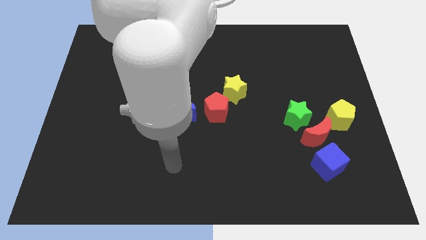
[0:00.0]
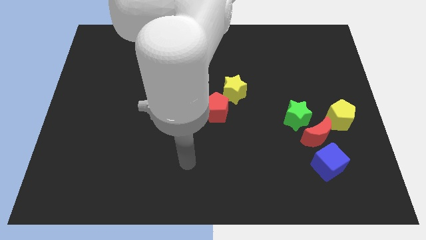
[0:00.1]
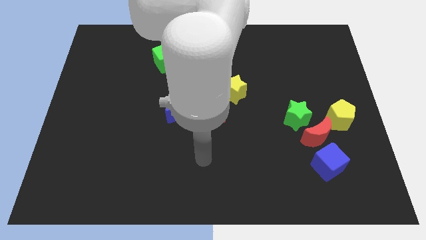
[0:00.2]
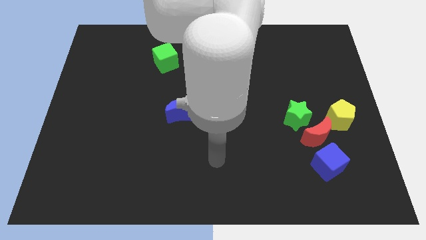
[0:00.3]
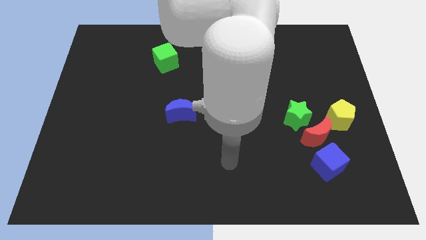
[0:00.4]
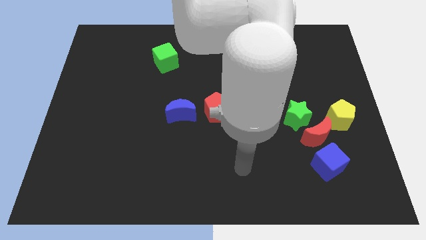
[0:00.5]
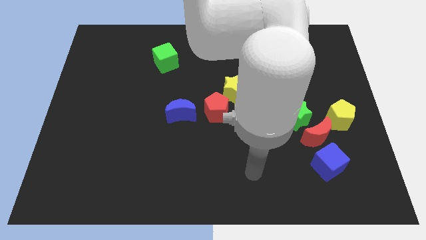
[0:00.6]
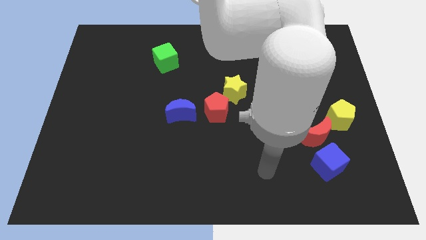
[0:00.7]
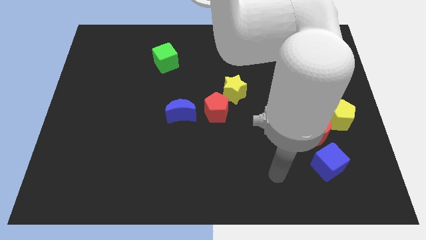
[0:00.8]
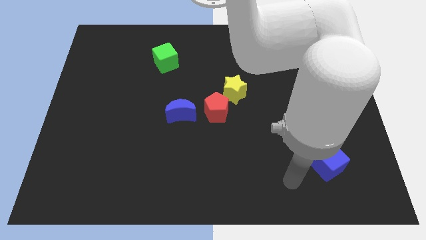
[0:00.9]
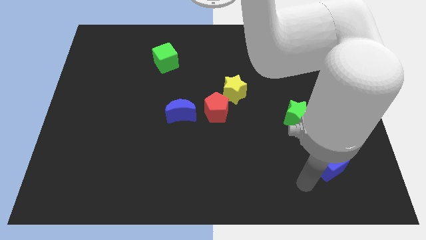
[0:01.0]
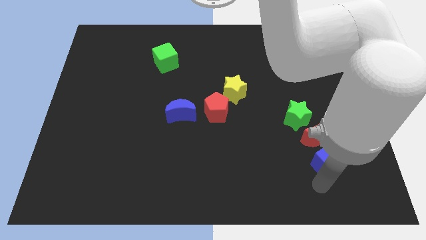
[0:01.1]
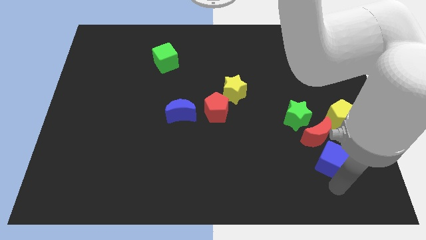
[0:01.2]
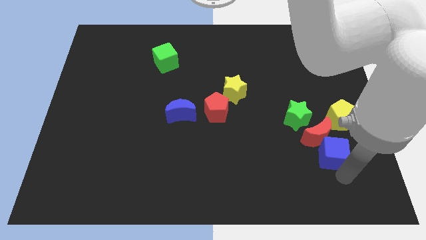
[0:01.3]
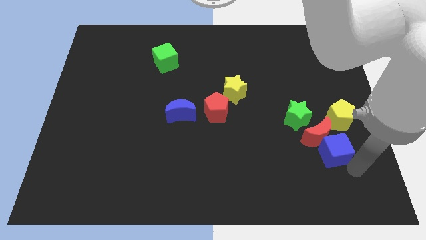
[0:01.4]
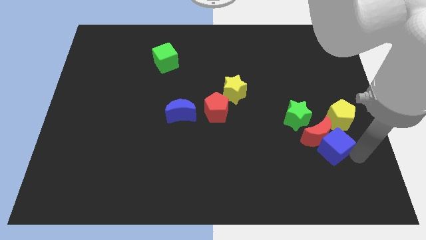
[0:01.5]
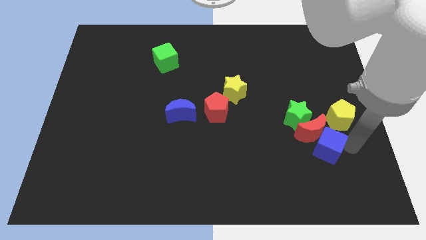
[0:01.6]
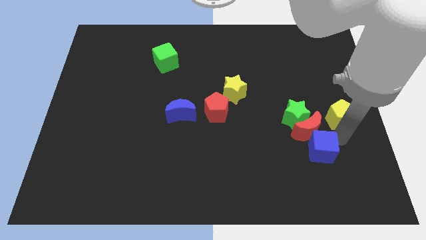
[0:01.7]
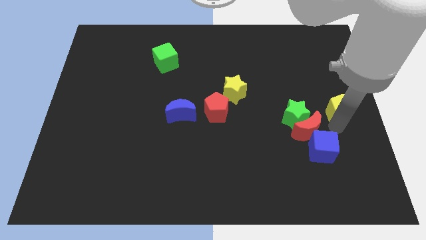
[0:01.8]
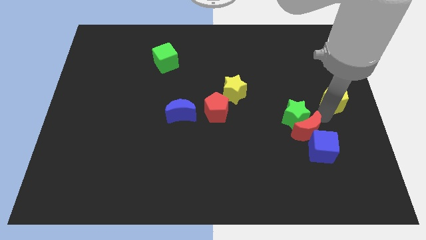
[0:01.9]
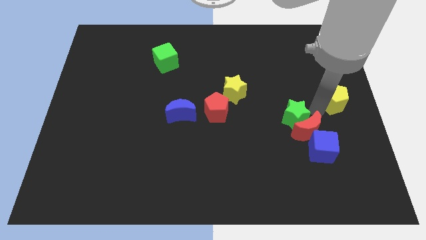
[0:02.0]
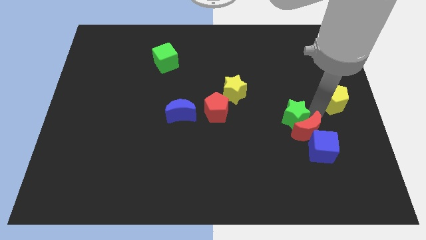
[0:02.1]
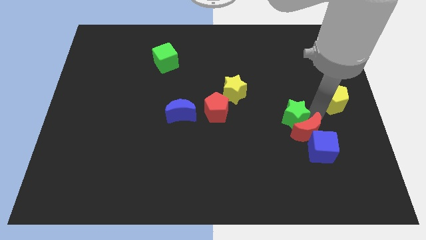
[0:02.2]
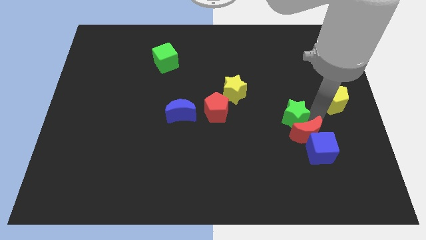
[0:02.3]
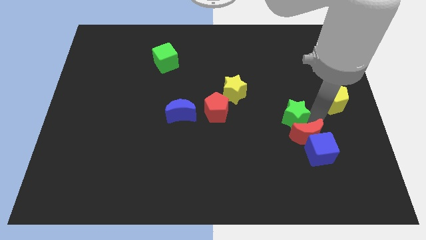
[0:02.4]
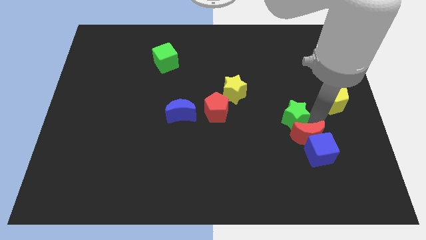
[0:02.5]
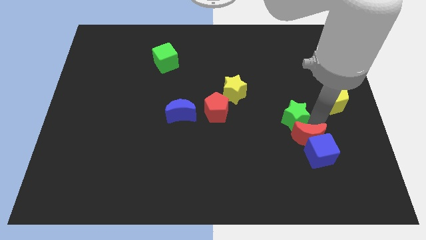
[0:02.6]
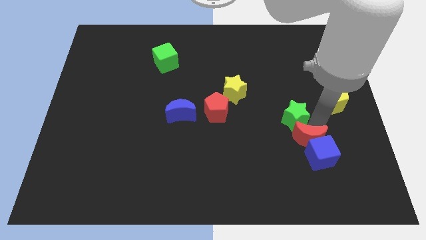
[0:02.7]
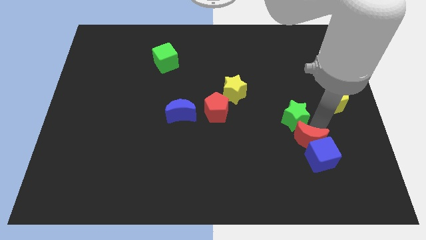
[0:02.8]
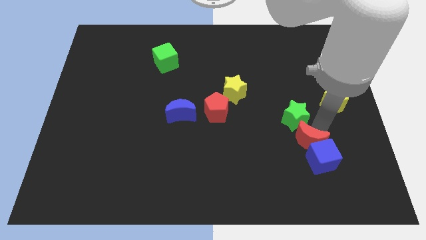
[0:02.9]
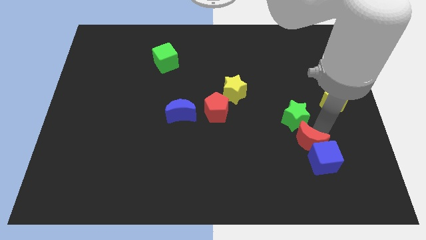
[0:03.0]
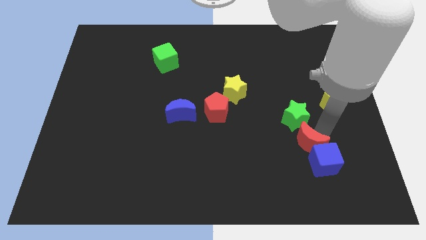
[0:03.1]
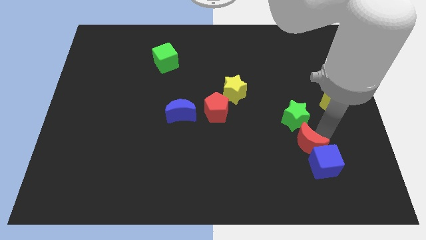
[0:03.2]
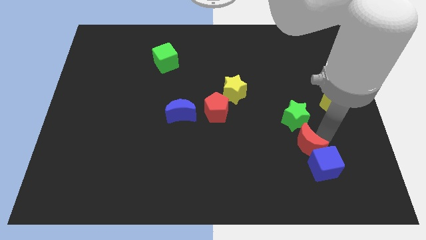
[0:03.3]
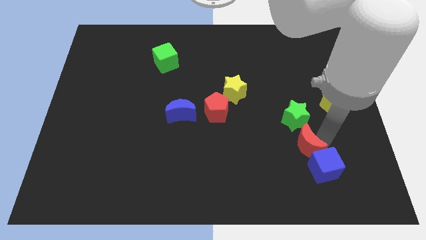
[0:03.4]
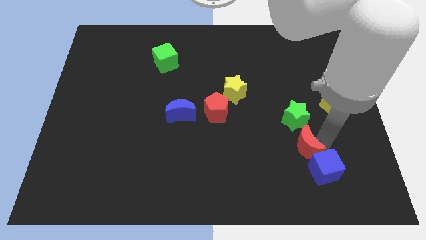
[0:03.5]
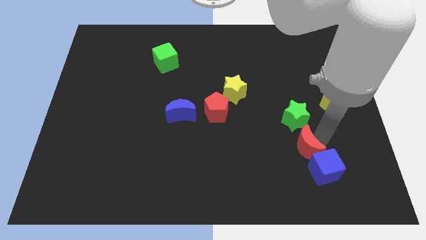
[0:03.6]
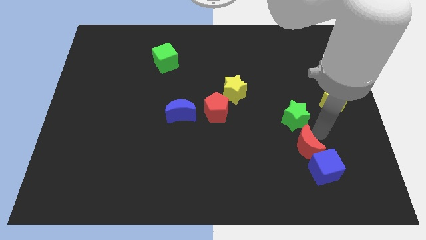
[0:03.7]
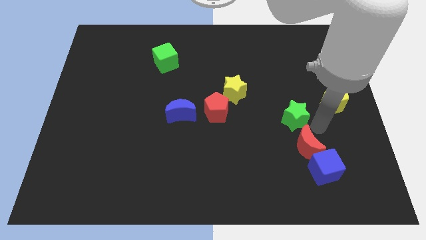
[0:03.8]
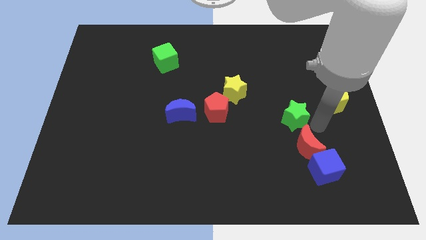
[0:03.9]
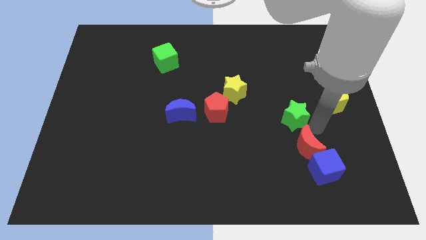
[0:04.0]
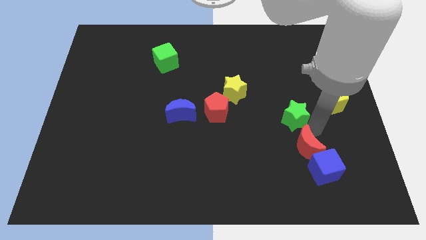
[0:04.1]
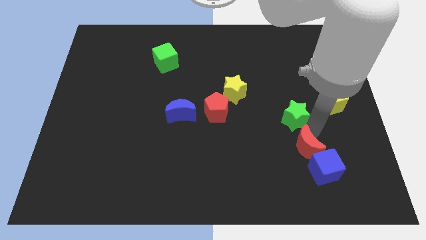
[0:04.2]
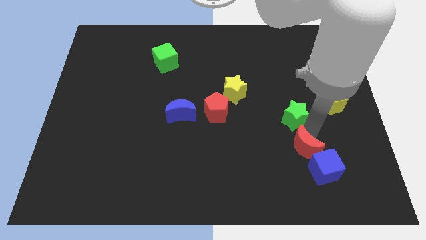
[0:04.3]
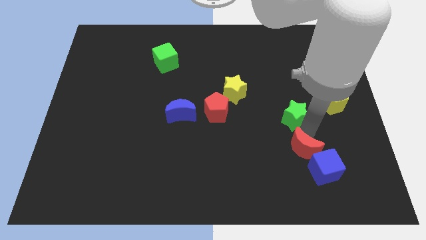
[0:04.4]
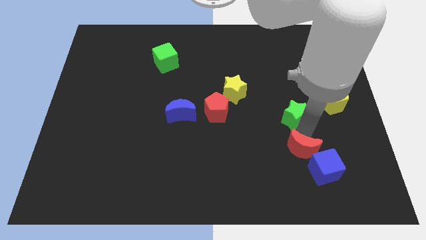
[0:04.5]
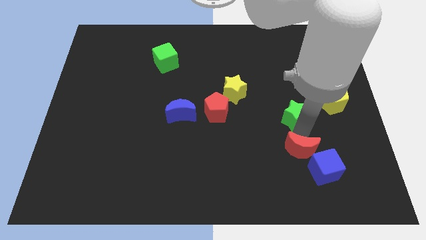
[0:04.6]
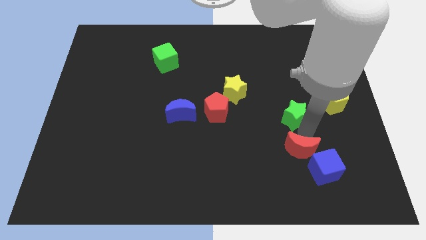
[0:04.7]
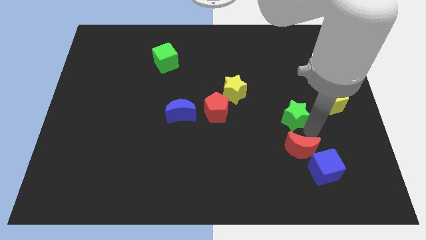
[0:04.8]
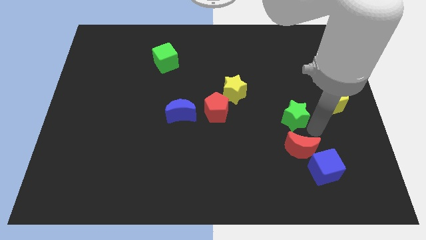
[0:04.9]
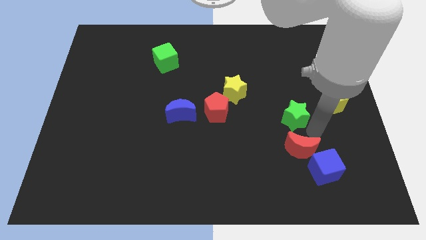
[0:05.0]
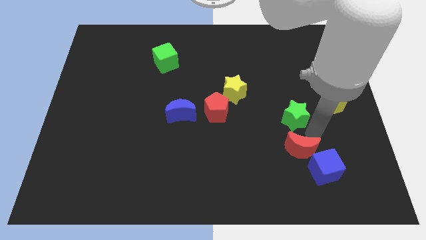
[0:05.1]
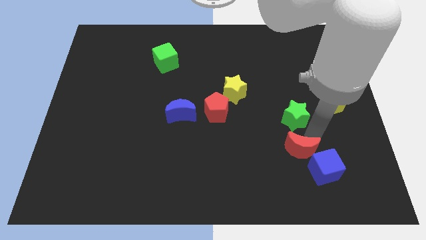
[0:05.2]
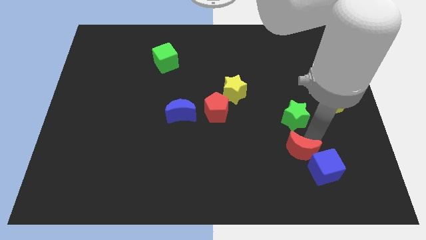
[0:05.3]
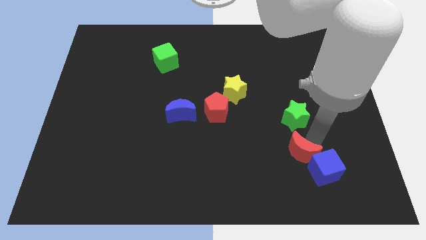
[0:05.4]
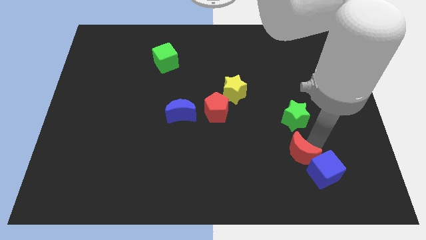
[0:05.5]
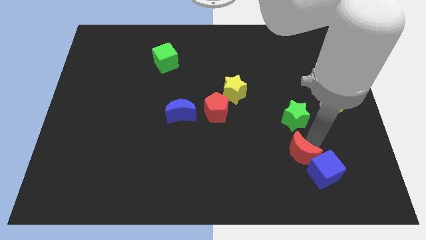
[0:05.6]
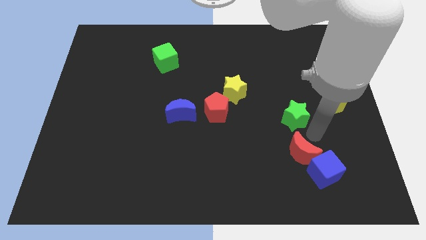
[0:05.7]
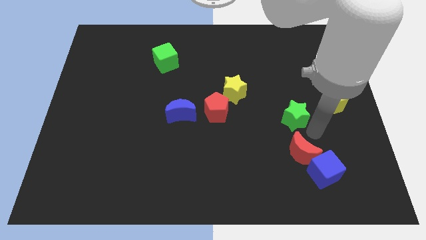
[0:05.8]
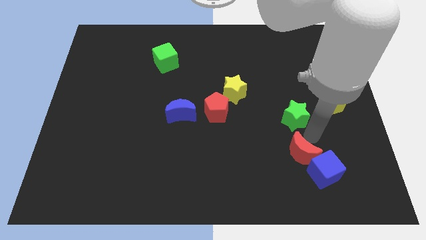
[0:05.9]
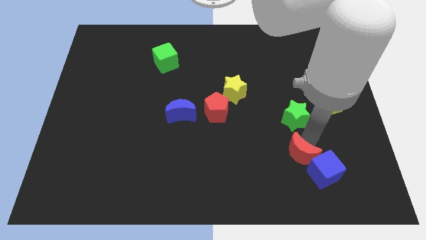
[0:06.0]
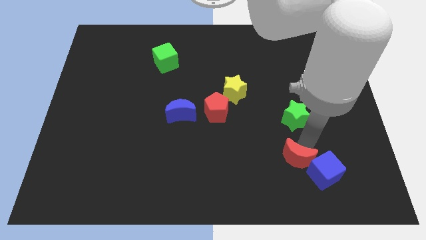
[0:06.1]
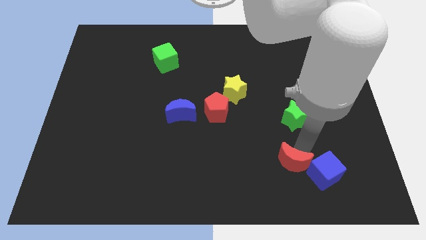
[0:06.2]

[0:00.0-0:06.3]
move the red moon away from the green star, blue cube, and yellow pentagon

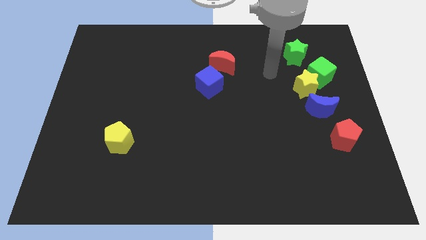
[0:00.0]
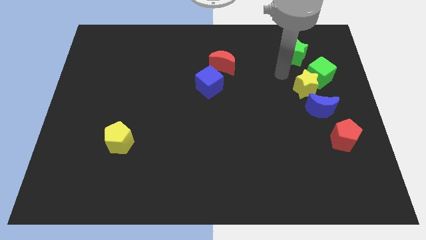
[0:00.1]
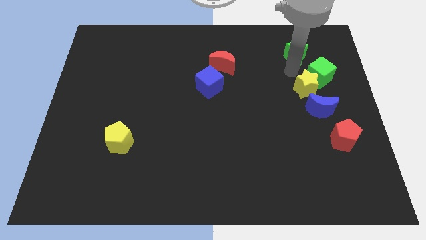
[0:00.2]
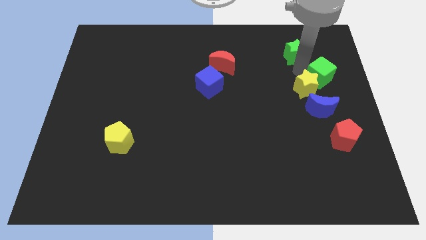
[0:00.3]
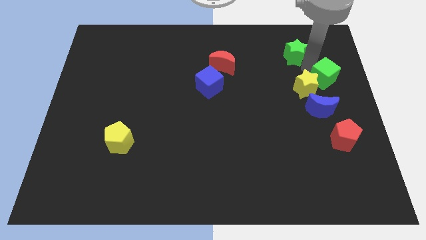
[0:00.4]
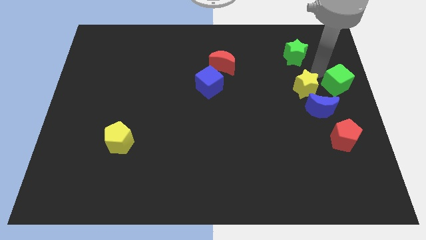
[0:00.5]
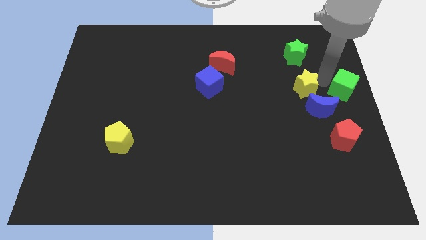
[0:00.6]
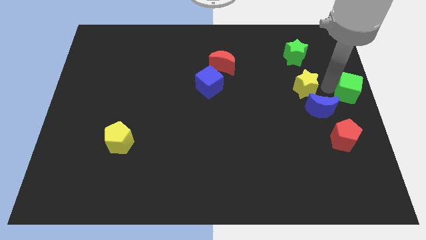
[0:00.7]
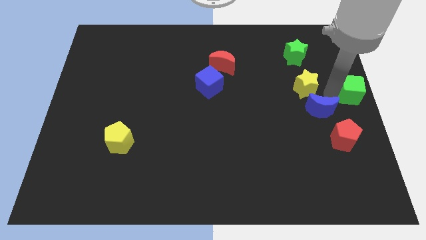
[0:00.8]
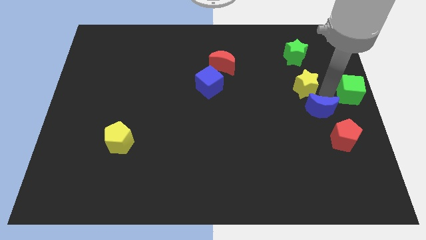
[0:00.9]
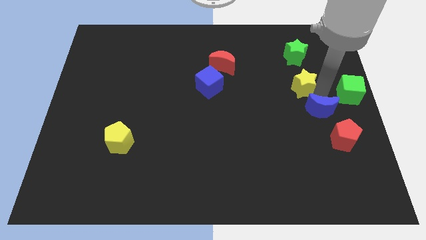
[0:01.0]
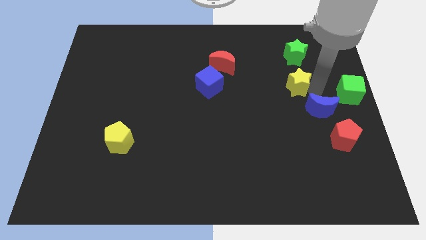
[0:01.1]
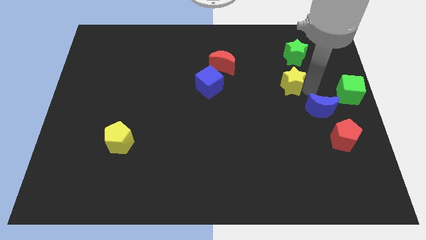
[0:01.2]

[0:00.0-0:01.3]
pull the yellow star apart from the green cube and blue moon

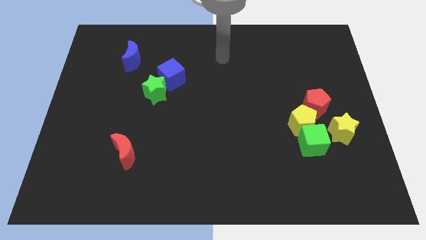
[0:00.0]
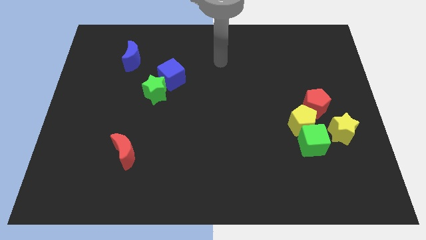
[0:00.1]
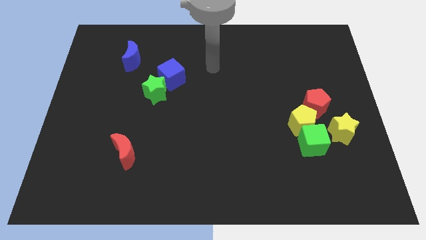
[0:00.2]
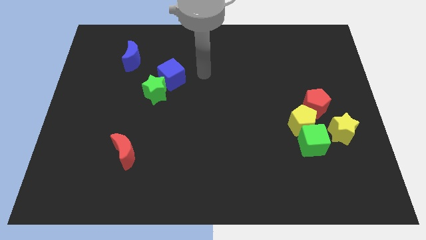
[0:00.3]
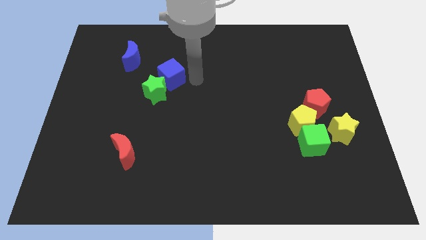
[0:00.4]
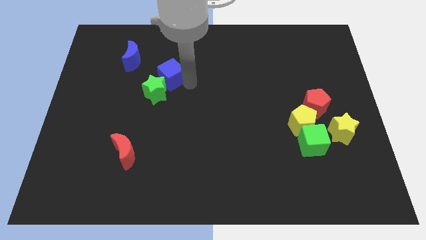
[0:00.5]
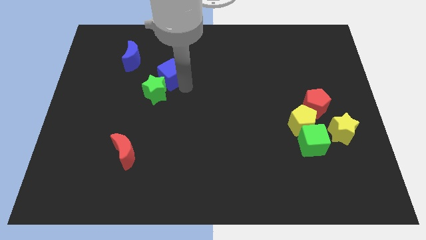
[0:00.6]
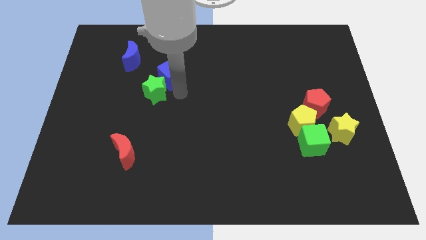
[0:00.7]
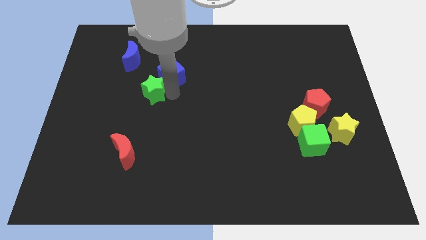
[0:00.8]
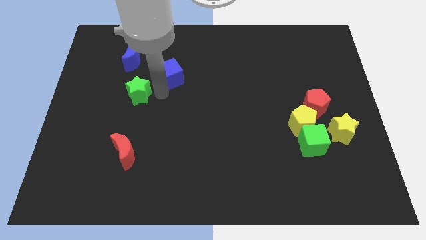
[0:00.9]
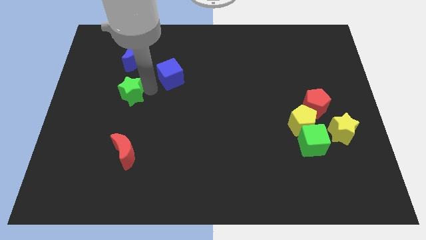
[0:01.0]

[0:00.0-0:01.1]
pull the blue cube apart from the green star

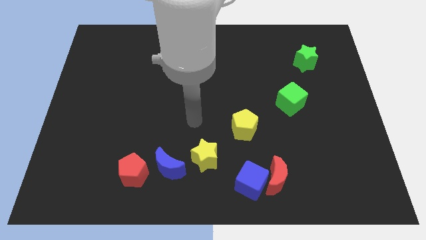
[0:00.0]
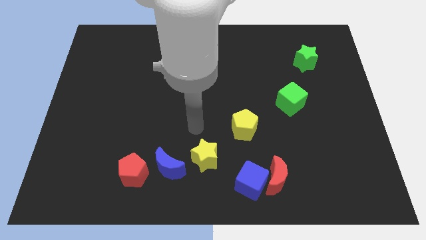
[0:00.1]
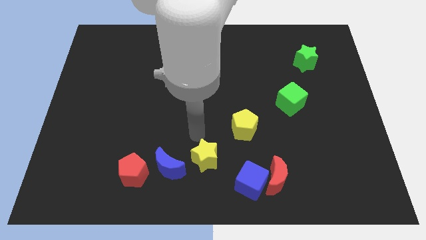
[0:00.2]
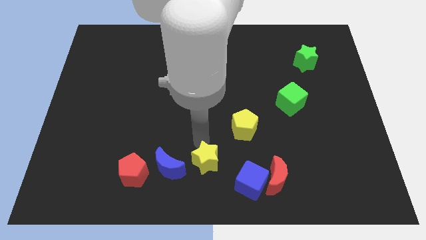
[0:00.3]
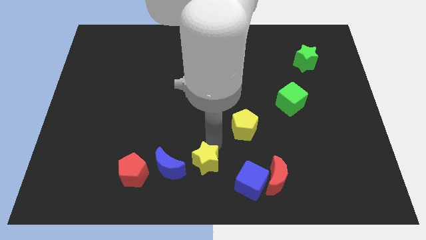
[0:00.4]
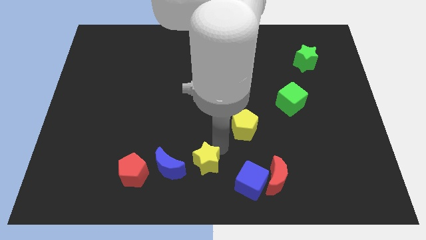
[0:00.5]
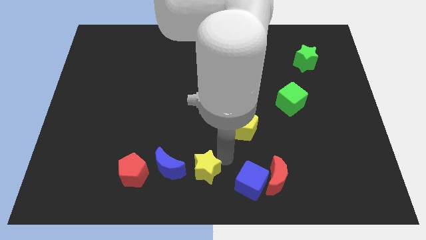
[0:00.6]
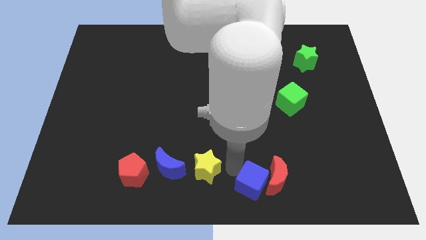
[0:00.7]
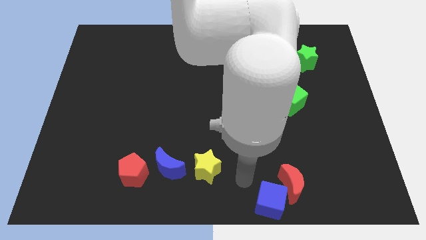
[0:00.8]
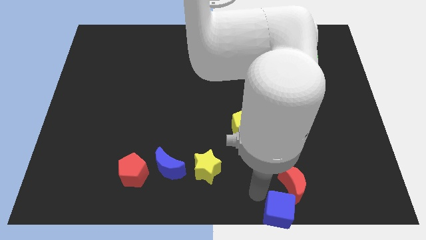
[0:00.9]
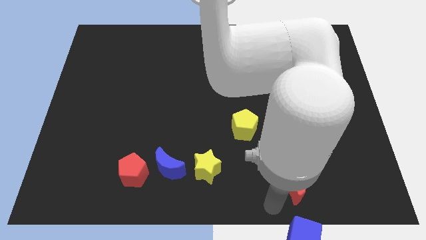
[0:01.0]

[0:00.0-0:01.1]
separate the red moon from the blue cube
